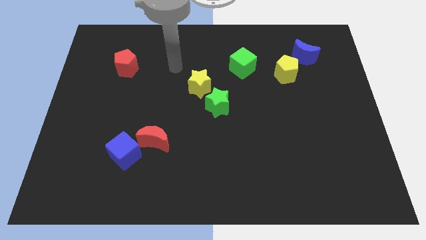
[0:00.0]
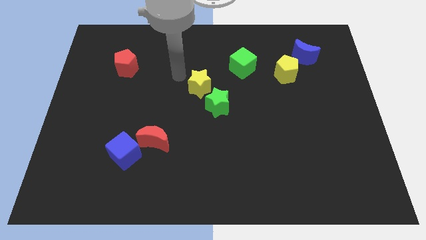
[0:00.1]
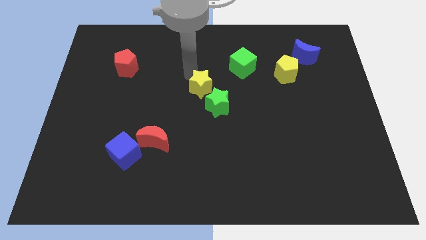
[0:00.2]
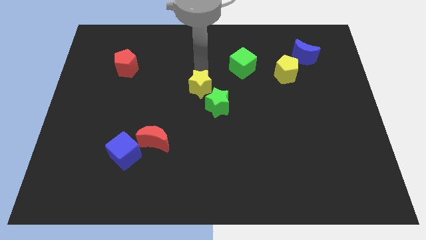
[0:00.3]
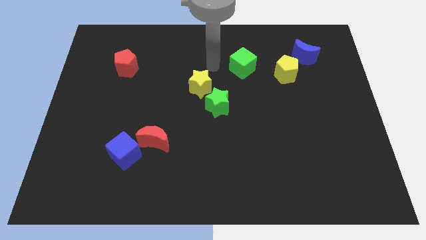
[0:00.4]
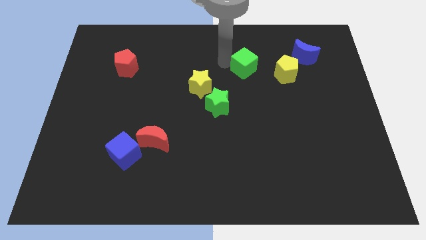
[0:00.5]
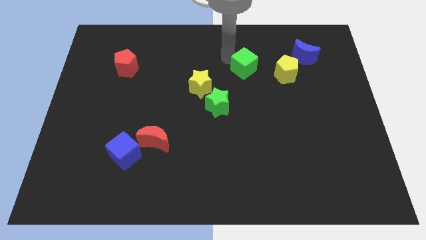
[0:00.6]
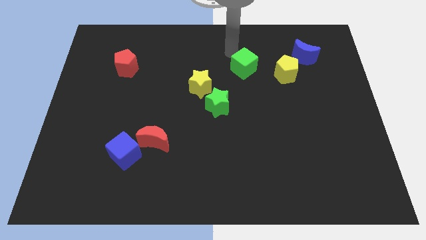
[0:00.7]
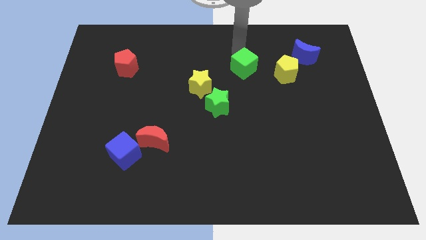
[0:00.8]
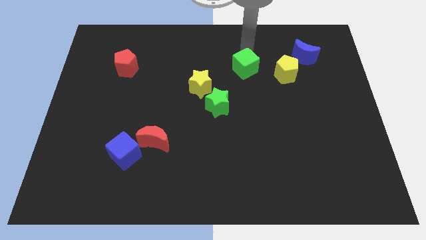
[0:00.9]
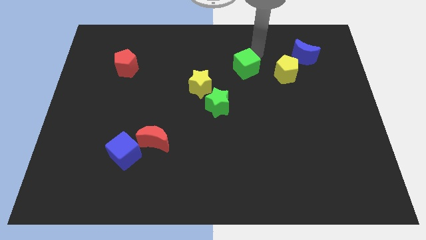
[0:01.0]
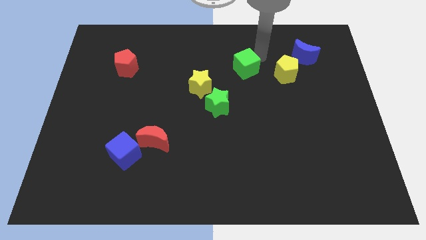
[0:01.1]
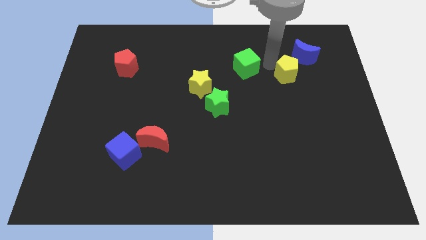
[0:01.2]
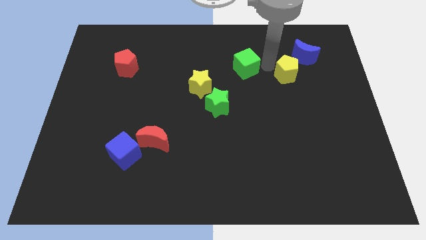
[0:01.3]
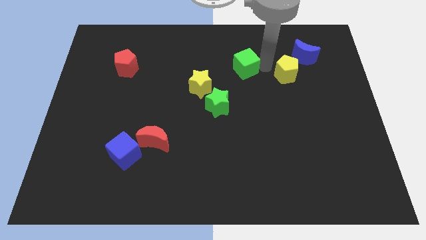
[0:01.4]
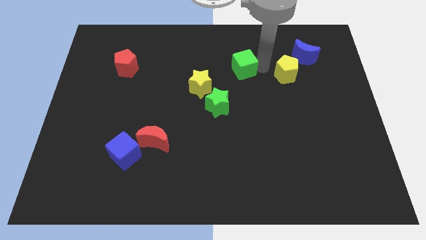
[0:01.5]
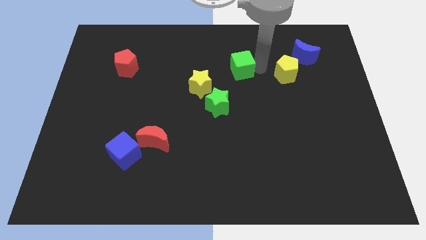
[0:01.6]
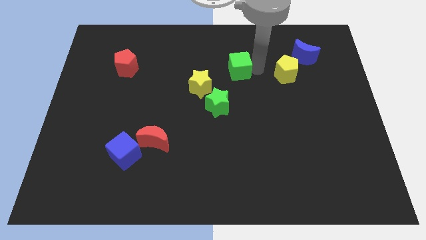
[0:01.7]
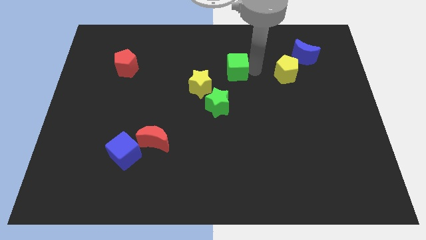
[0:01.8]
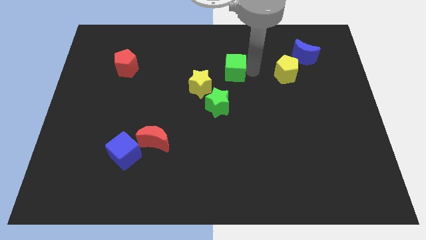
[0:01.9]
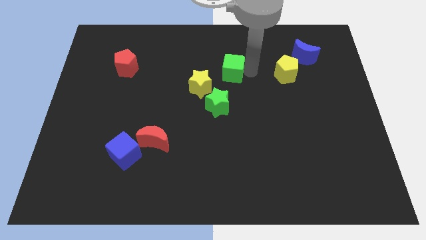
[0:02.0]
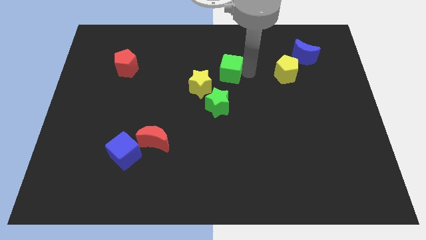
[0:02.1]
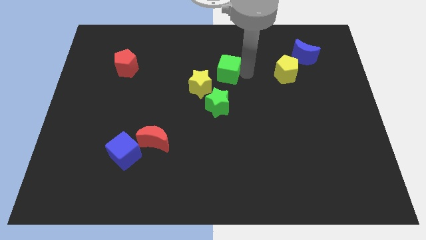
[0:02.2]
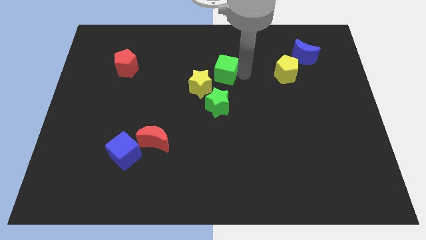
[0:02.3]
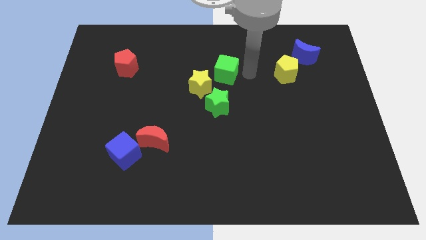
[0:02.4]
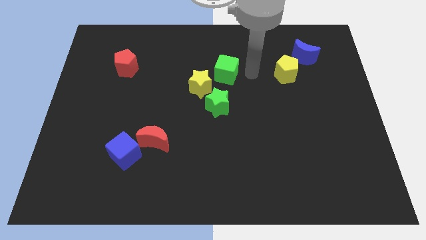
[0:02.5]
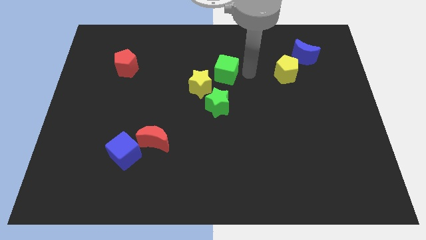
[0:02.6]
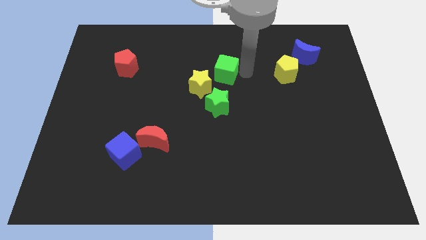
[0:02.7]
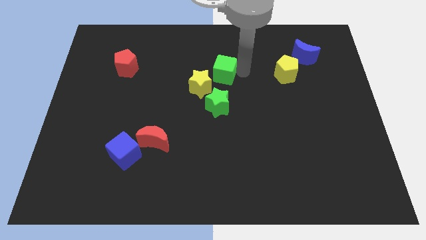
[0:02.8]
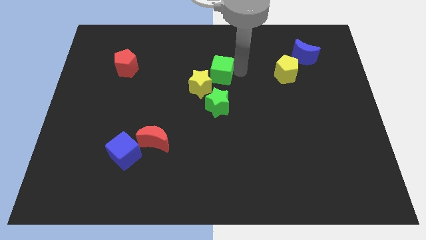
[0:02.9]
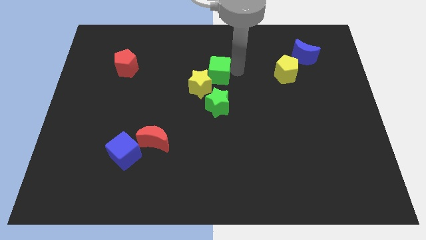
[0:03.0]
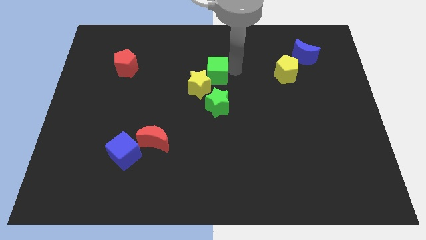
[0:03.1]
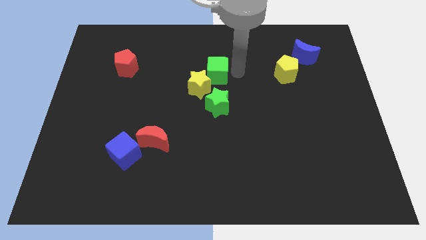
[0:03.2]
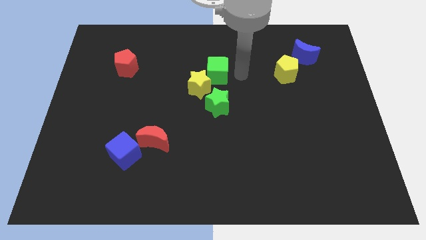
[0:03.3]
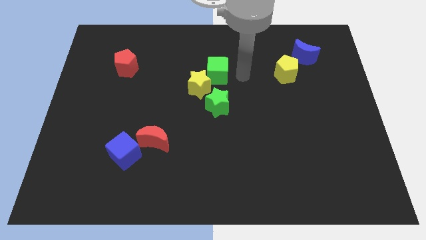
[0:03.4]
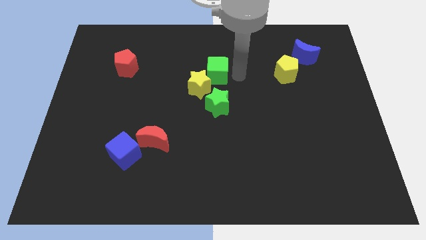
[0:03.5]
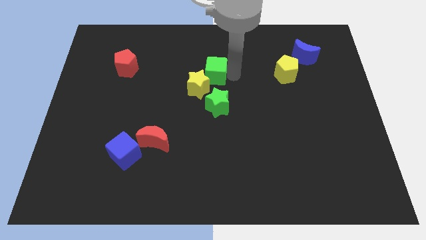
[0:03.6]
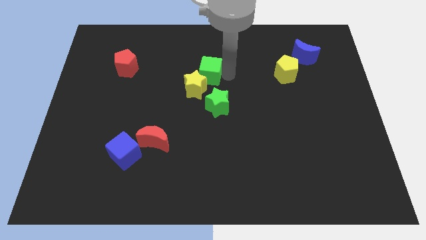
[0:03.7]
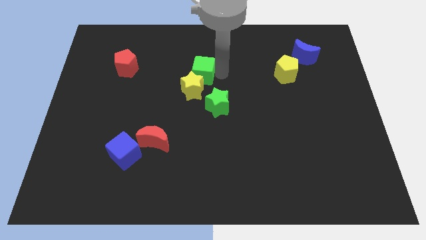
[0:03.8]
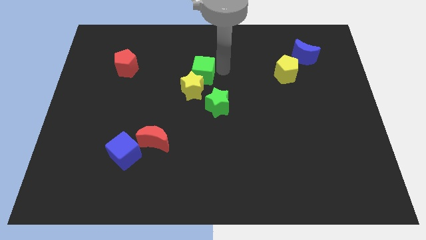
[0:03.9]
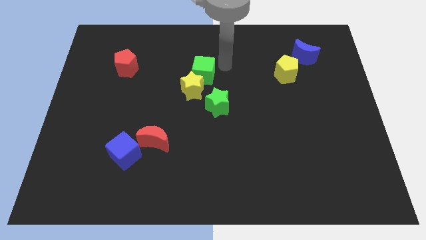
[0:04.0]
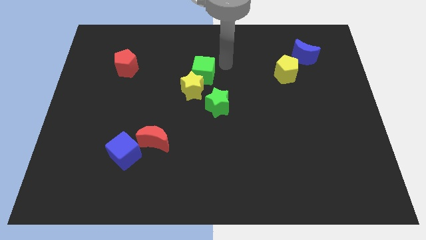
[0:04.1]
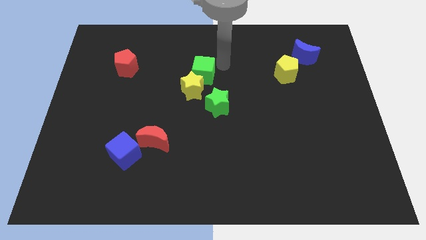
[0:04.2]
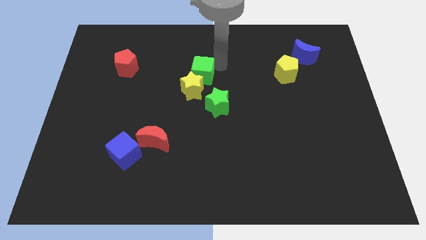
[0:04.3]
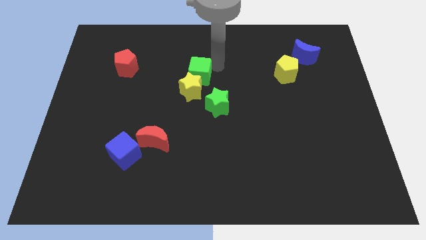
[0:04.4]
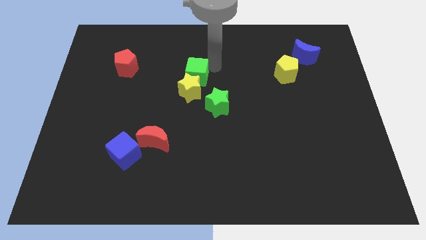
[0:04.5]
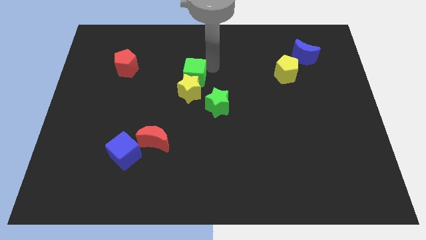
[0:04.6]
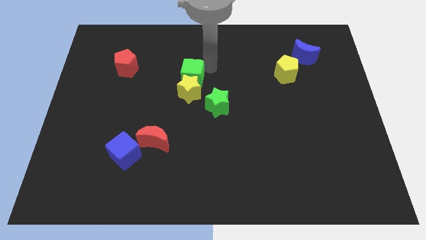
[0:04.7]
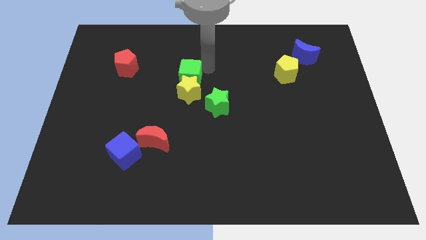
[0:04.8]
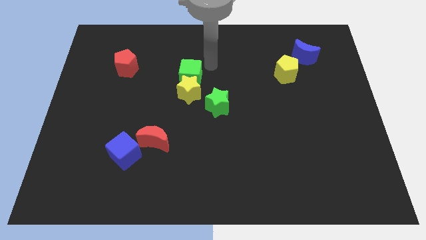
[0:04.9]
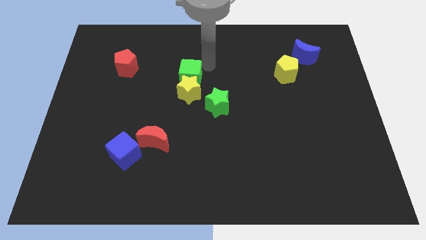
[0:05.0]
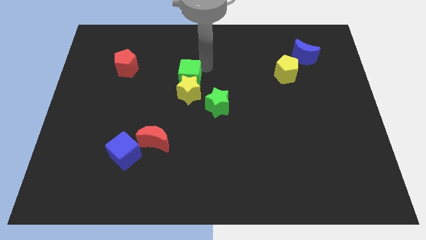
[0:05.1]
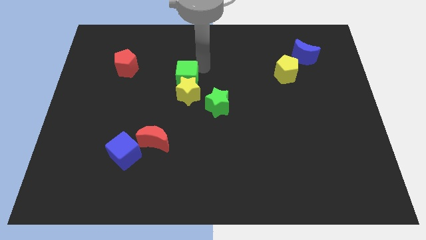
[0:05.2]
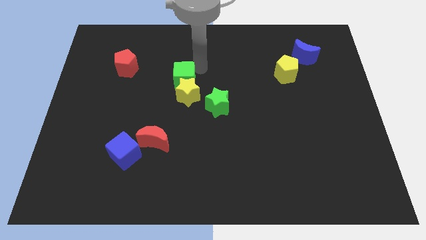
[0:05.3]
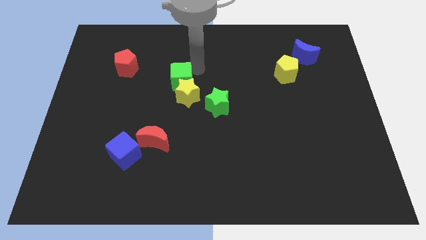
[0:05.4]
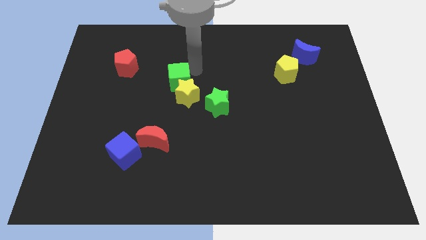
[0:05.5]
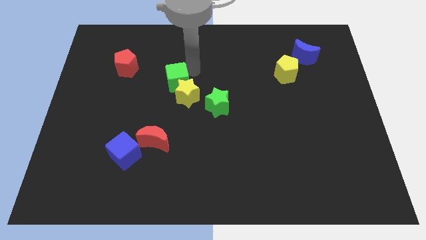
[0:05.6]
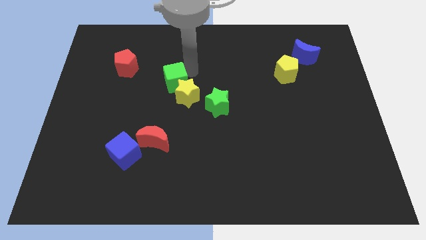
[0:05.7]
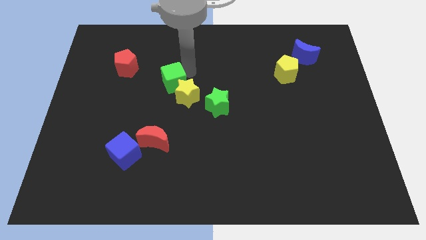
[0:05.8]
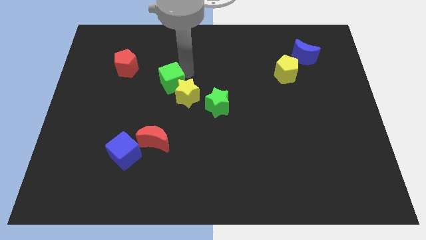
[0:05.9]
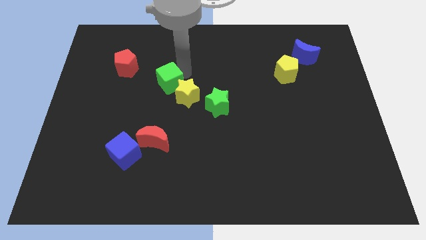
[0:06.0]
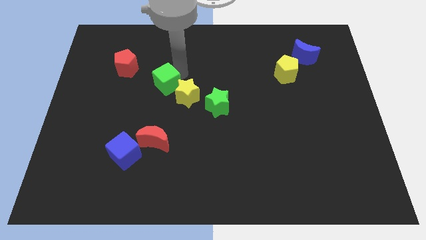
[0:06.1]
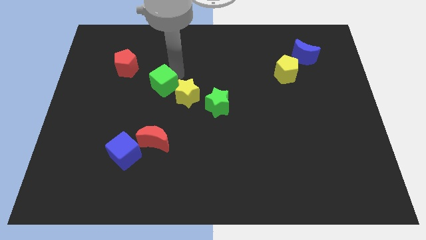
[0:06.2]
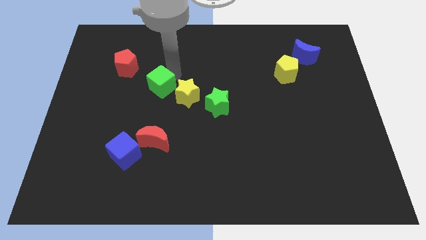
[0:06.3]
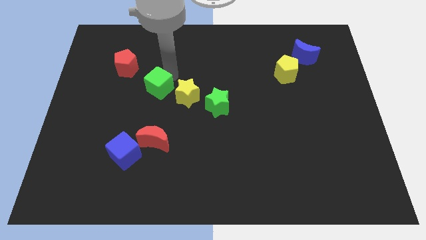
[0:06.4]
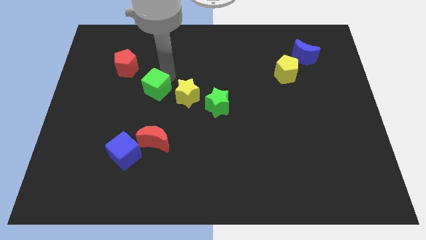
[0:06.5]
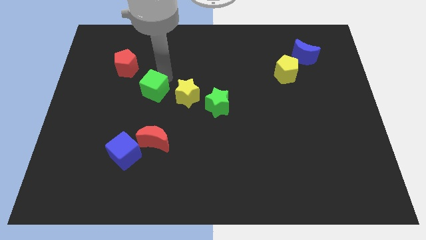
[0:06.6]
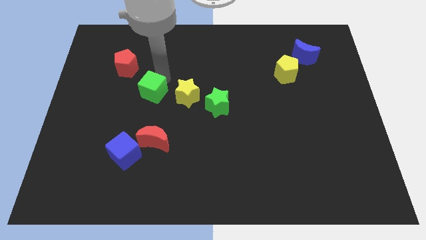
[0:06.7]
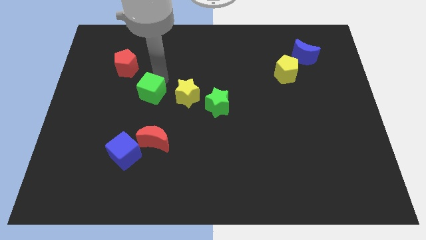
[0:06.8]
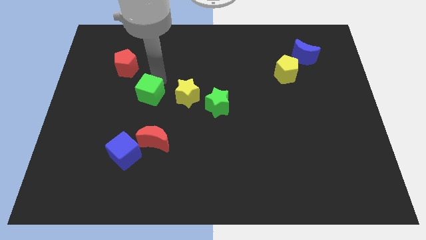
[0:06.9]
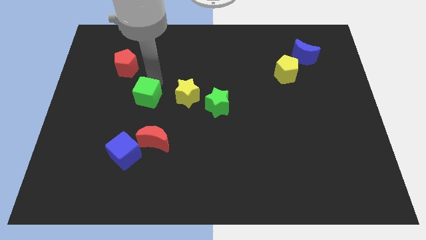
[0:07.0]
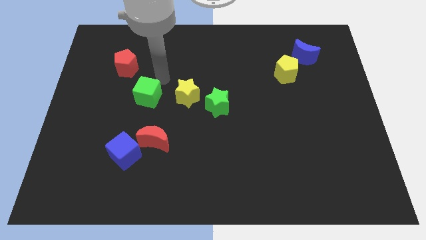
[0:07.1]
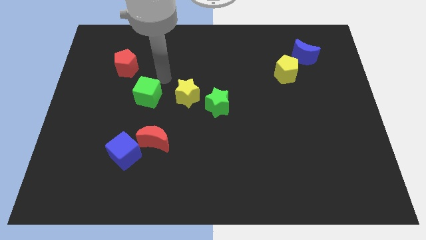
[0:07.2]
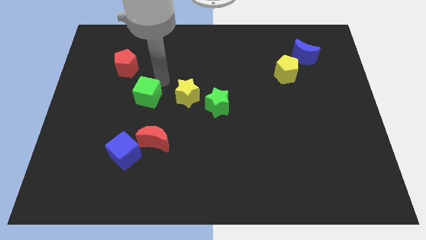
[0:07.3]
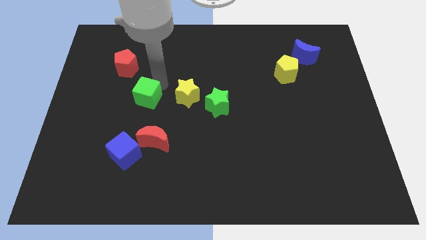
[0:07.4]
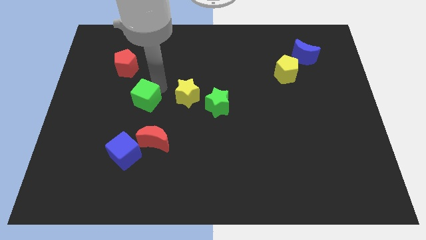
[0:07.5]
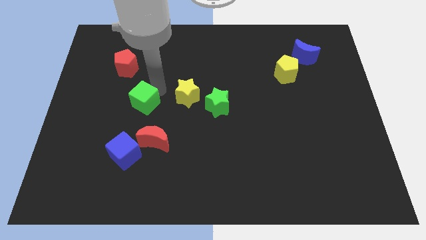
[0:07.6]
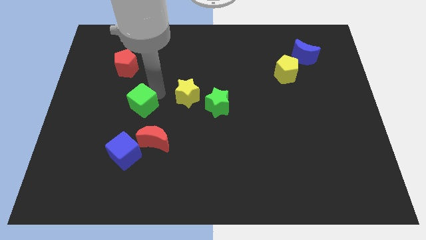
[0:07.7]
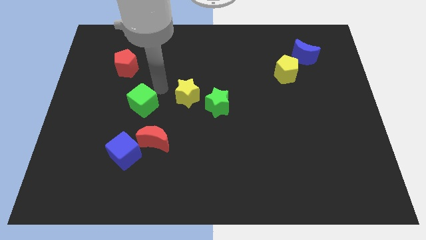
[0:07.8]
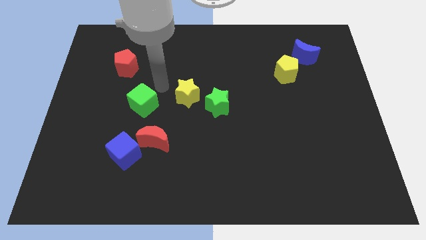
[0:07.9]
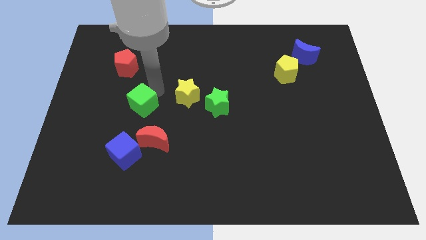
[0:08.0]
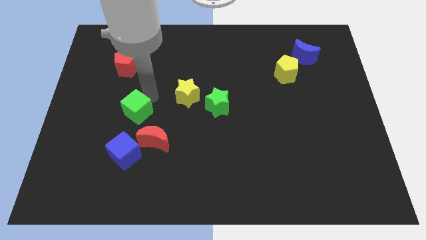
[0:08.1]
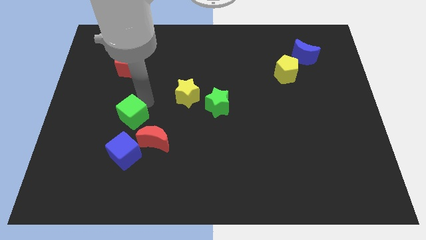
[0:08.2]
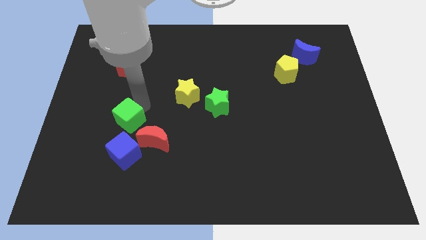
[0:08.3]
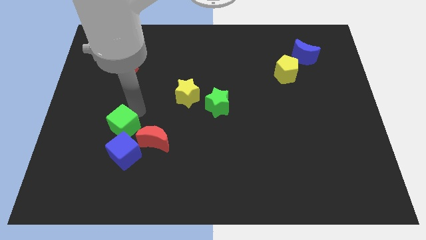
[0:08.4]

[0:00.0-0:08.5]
put the green cube left of the red moon
